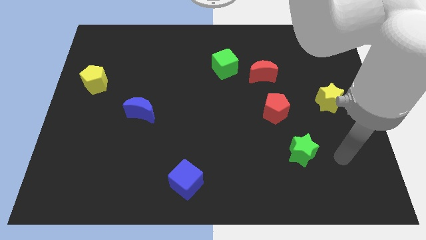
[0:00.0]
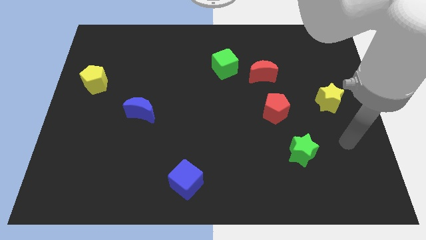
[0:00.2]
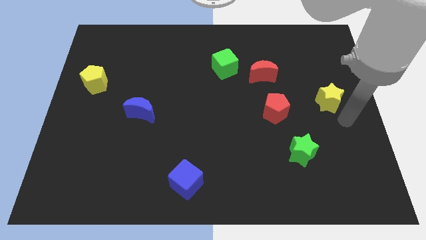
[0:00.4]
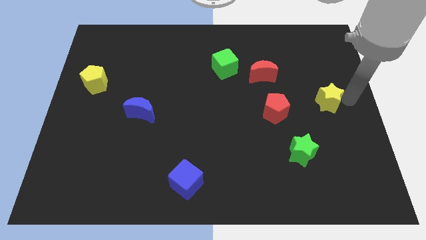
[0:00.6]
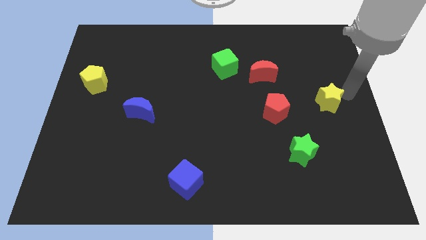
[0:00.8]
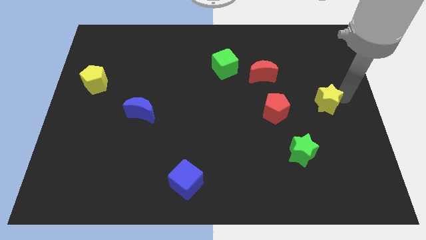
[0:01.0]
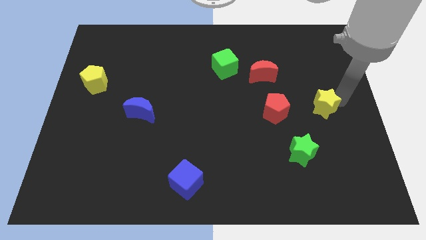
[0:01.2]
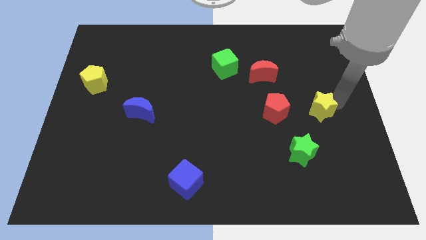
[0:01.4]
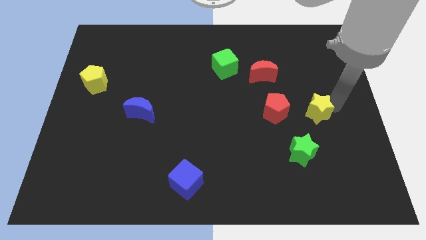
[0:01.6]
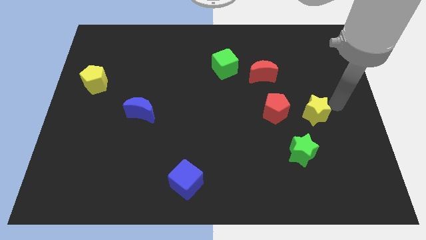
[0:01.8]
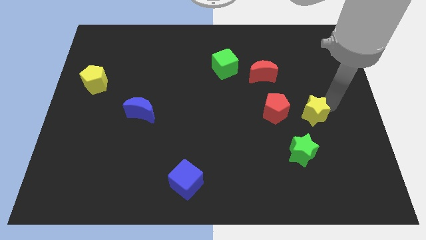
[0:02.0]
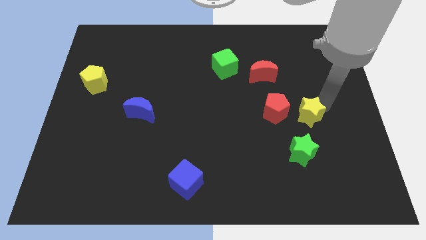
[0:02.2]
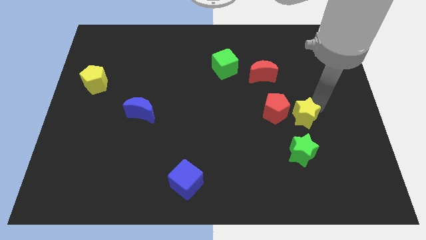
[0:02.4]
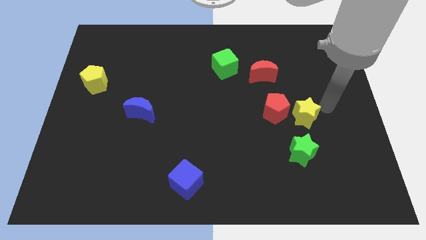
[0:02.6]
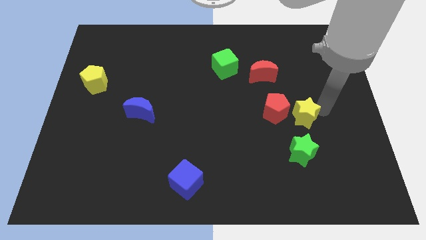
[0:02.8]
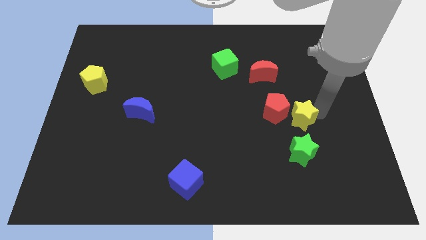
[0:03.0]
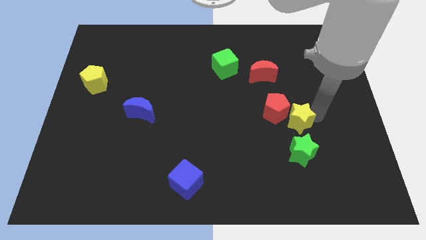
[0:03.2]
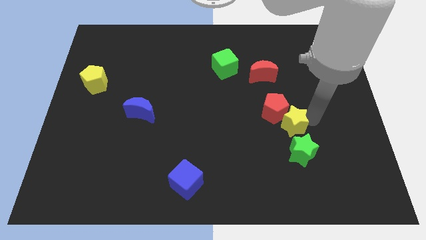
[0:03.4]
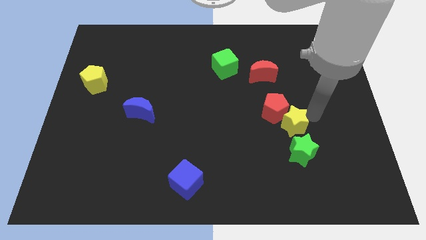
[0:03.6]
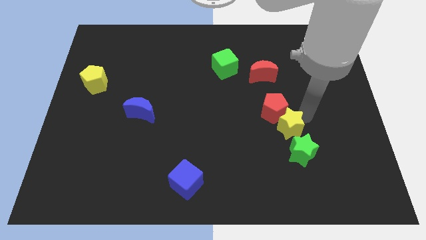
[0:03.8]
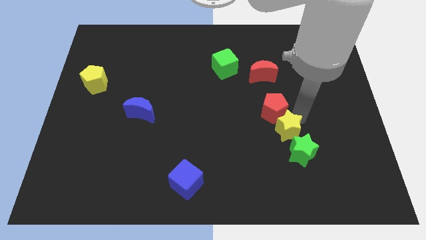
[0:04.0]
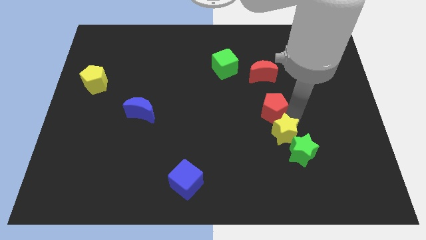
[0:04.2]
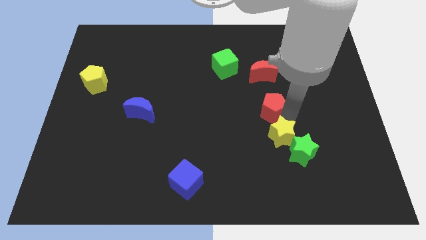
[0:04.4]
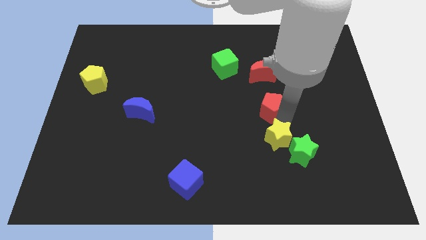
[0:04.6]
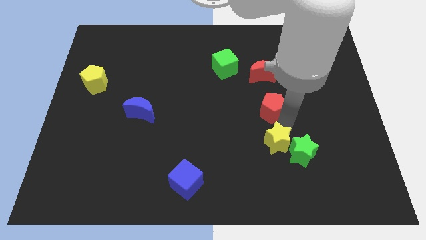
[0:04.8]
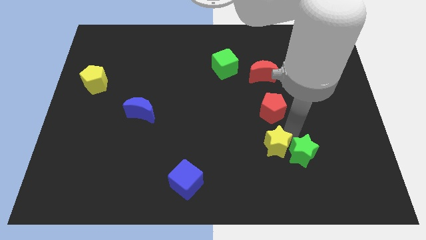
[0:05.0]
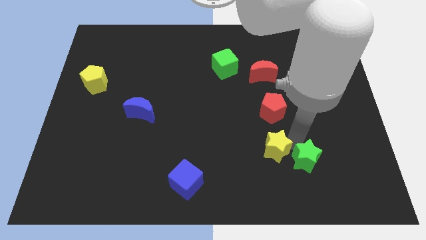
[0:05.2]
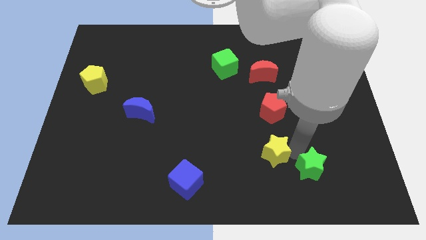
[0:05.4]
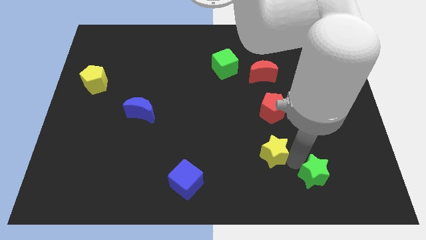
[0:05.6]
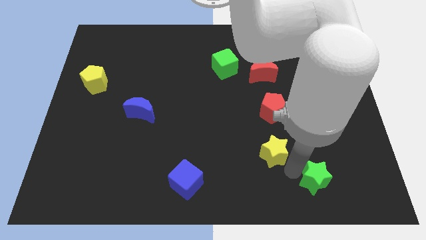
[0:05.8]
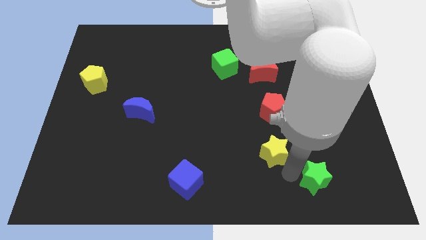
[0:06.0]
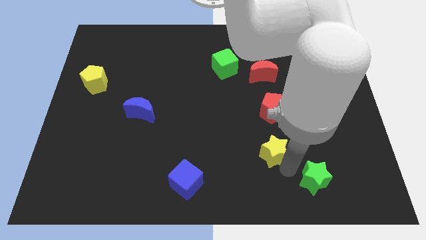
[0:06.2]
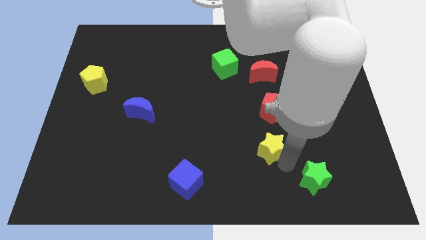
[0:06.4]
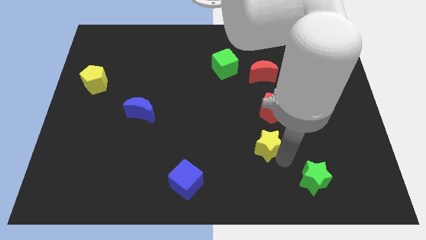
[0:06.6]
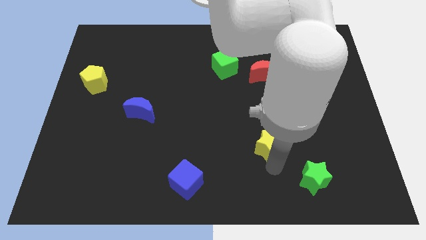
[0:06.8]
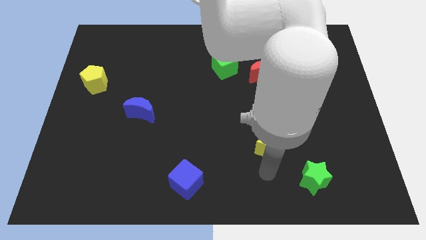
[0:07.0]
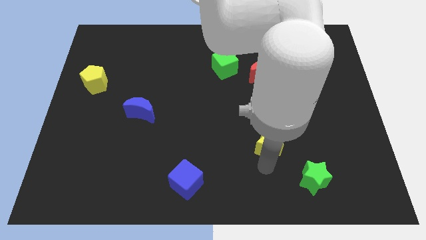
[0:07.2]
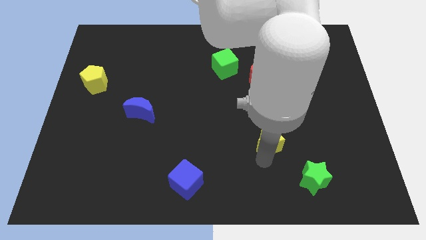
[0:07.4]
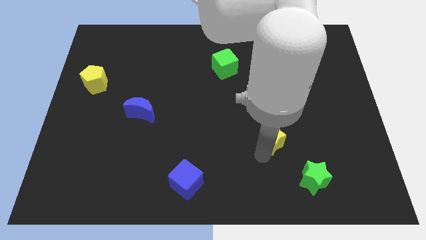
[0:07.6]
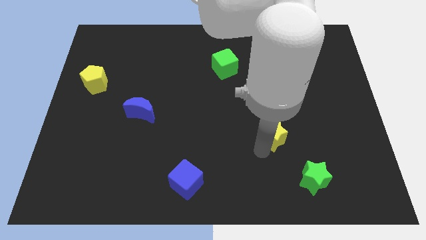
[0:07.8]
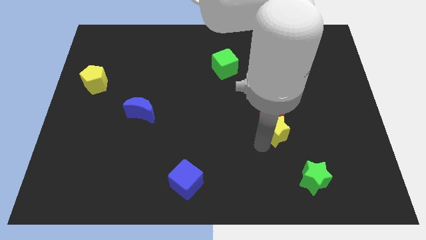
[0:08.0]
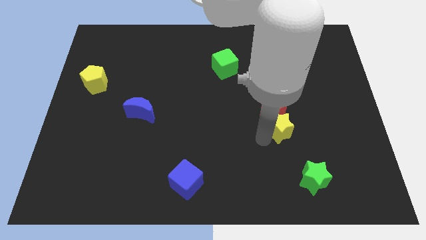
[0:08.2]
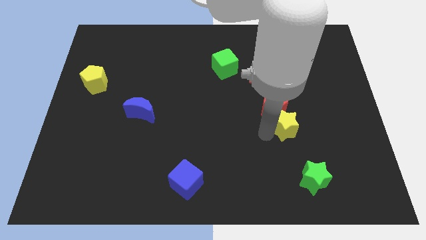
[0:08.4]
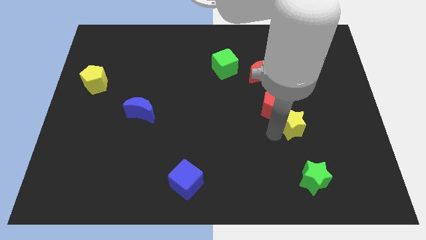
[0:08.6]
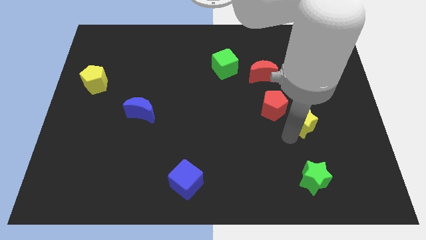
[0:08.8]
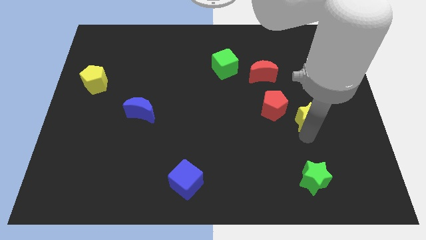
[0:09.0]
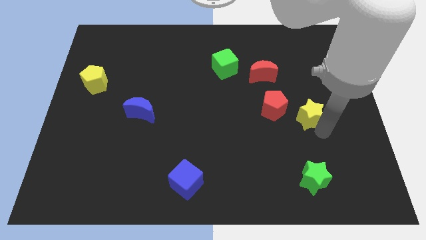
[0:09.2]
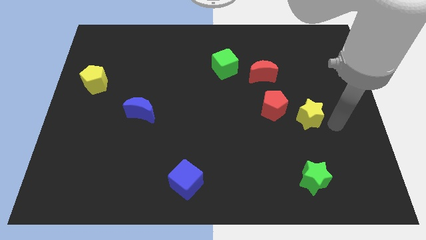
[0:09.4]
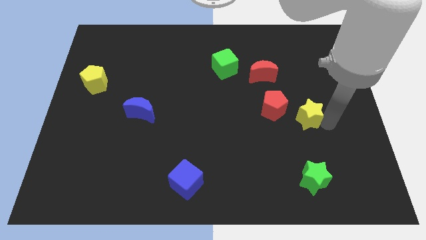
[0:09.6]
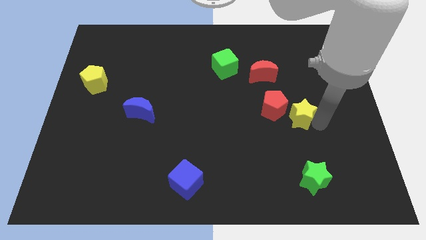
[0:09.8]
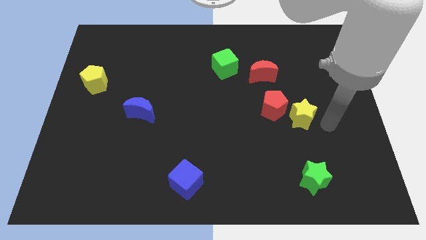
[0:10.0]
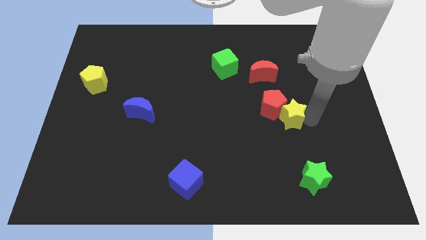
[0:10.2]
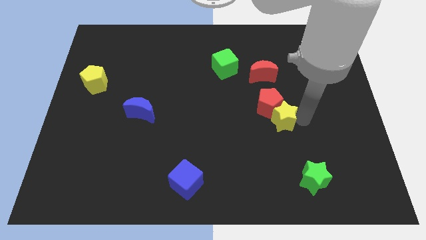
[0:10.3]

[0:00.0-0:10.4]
slide the yellow star to the bottom of the red moon

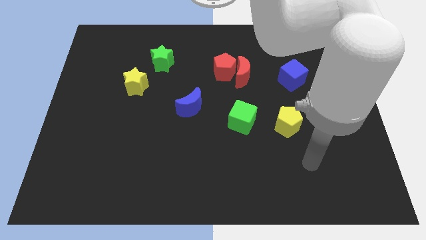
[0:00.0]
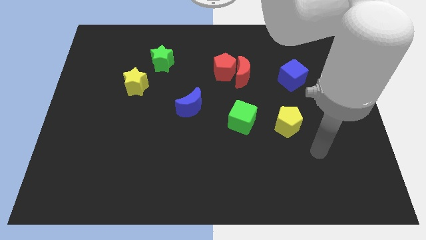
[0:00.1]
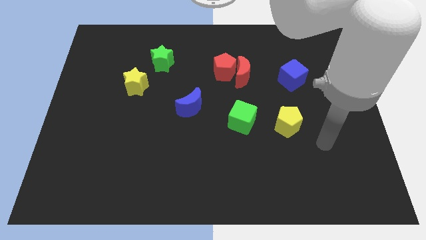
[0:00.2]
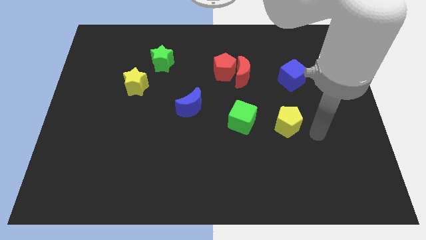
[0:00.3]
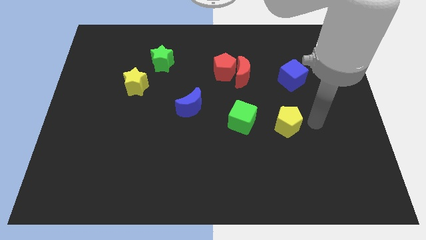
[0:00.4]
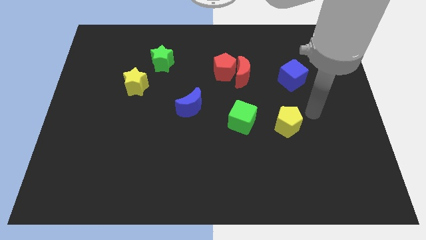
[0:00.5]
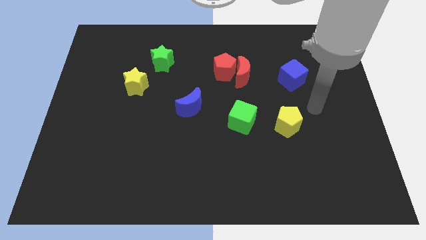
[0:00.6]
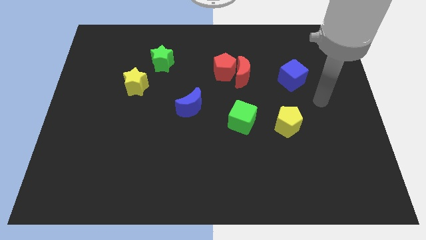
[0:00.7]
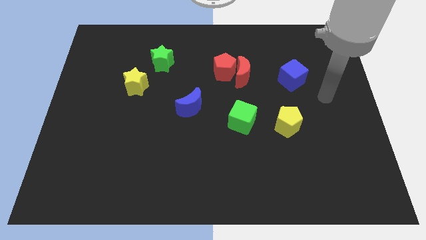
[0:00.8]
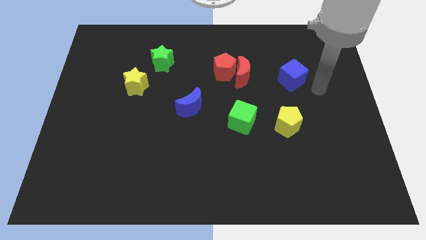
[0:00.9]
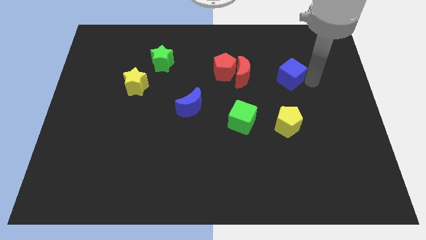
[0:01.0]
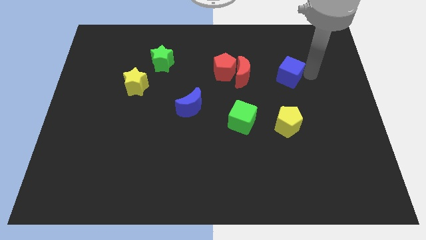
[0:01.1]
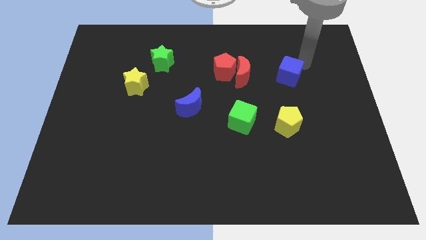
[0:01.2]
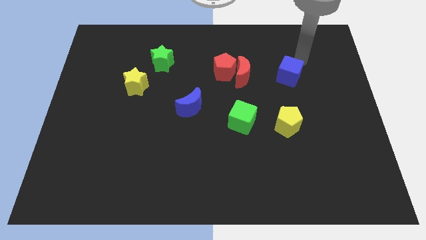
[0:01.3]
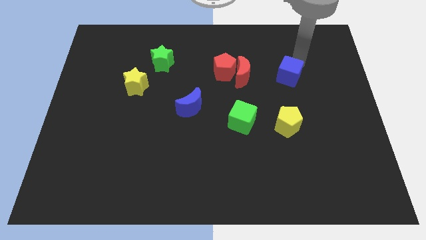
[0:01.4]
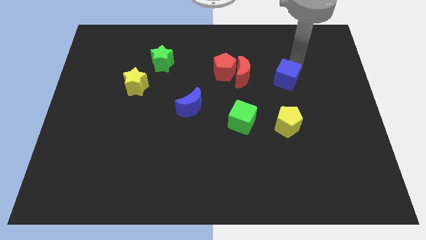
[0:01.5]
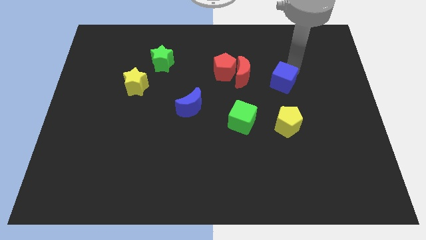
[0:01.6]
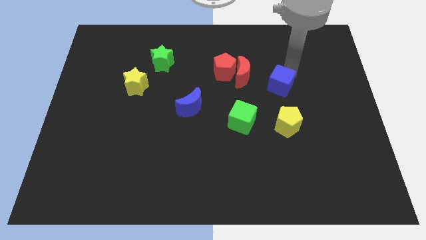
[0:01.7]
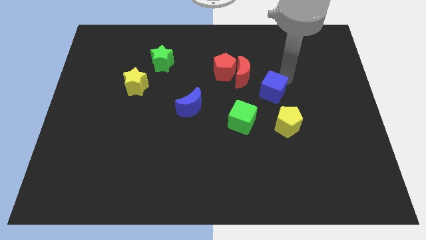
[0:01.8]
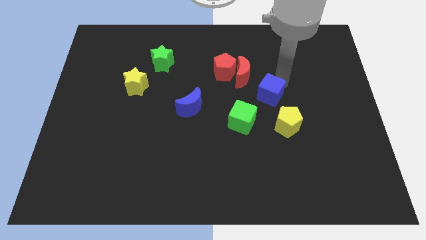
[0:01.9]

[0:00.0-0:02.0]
slide the blue cube to the top left side of the yellow pentagon

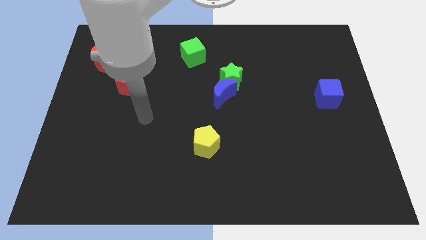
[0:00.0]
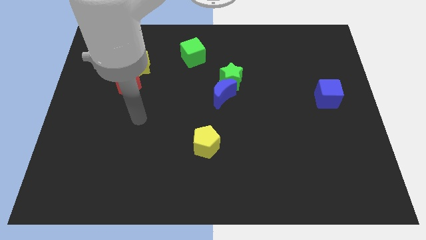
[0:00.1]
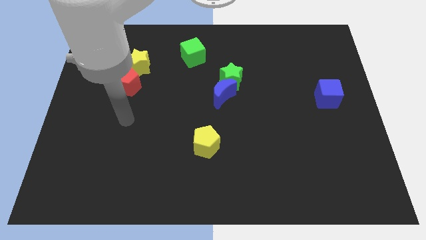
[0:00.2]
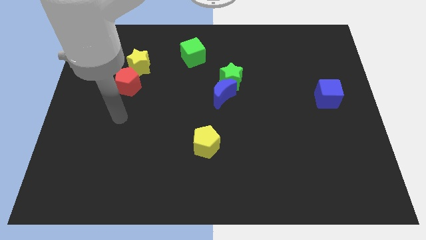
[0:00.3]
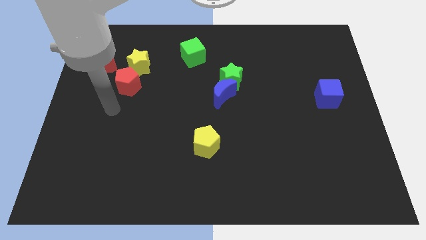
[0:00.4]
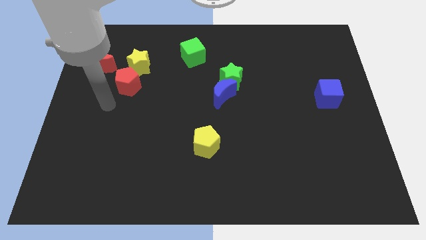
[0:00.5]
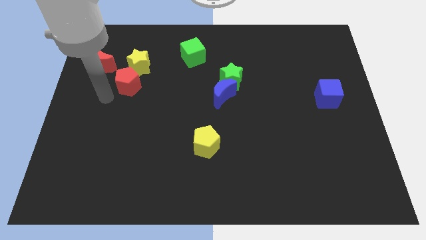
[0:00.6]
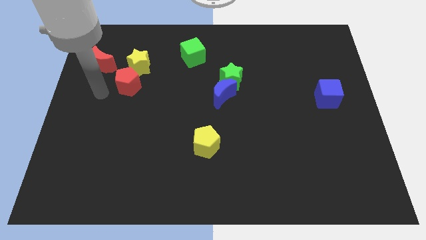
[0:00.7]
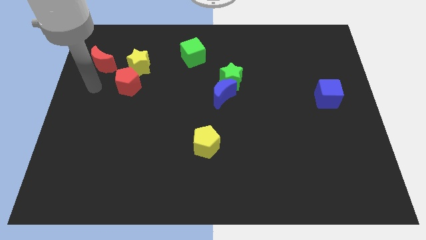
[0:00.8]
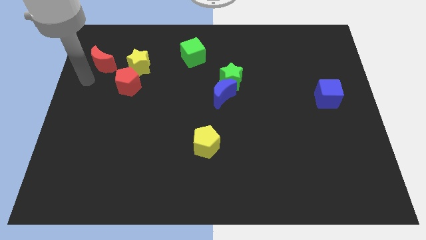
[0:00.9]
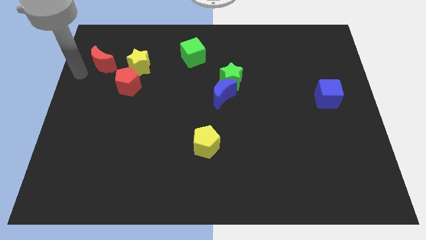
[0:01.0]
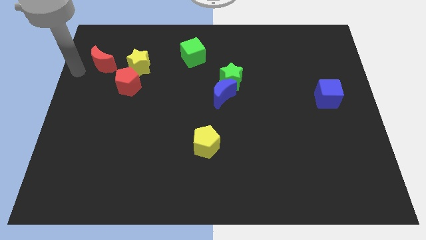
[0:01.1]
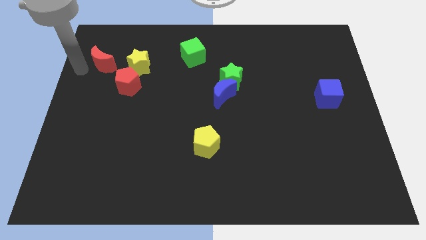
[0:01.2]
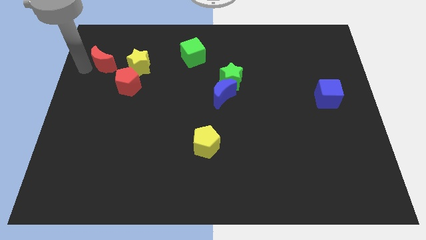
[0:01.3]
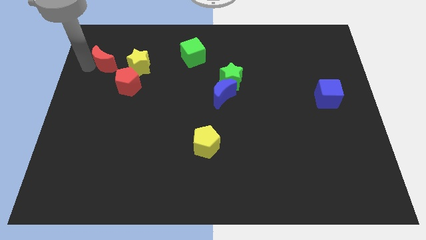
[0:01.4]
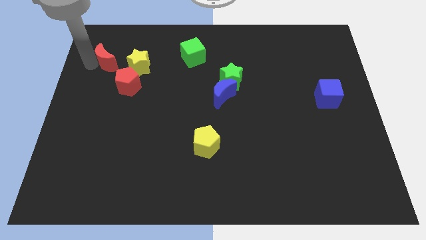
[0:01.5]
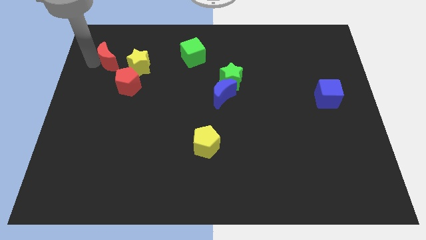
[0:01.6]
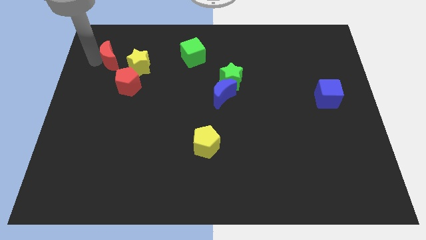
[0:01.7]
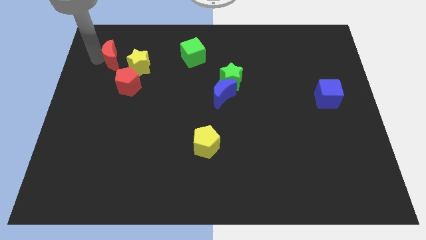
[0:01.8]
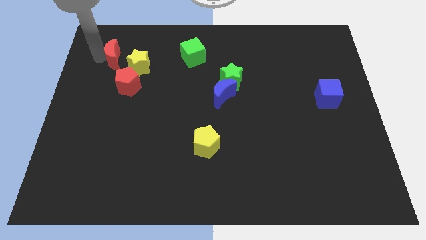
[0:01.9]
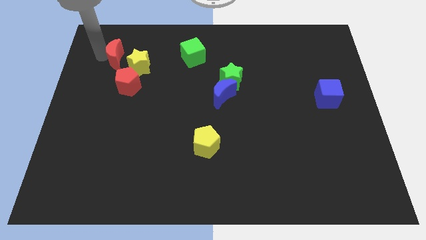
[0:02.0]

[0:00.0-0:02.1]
slide the red moon to the top of the red pentagon
